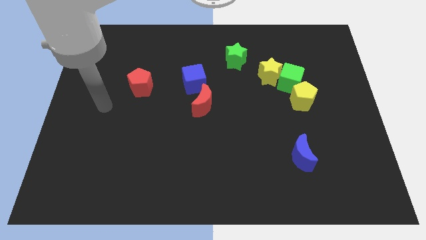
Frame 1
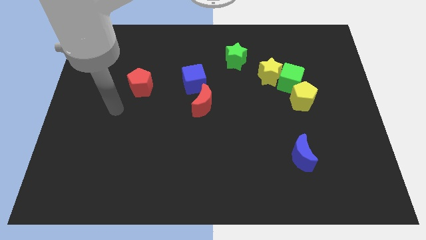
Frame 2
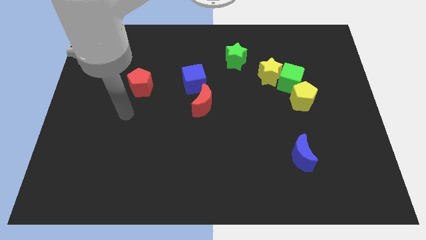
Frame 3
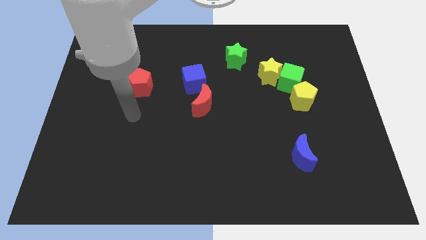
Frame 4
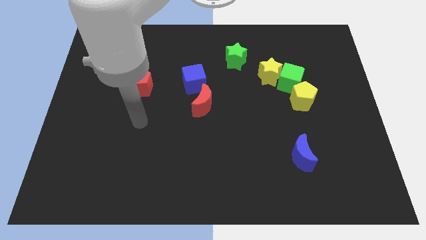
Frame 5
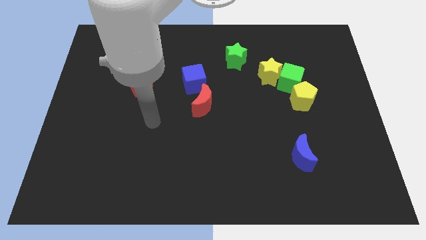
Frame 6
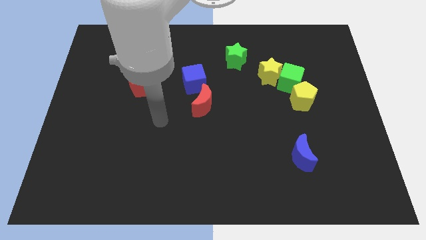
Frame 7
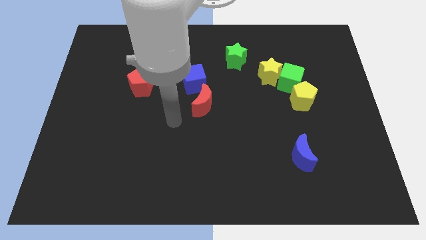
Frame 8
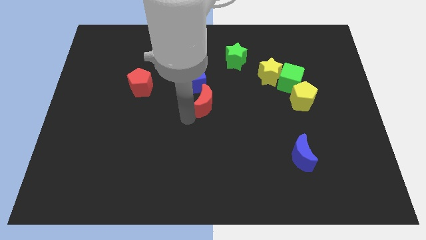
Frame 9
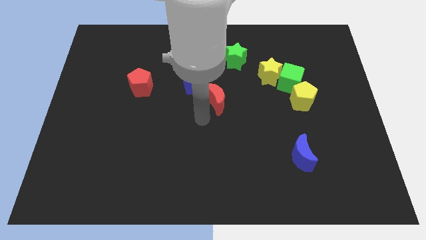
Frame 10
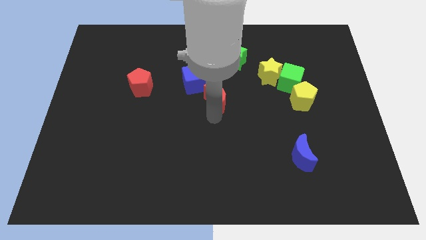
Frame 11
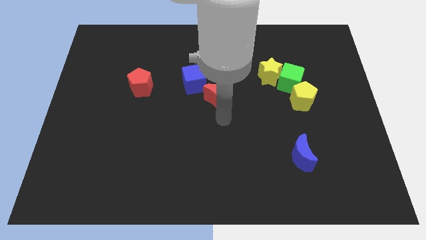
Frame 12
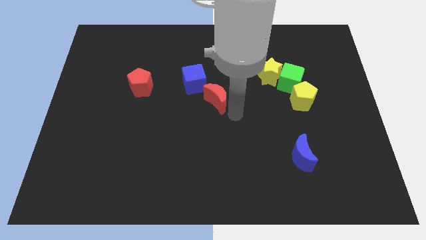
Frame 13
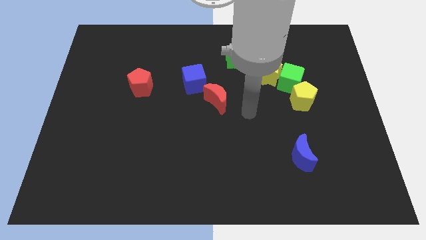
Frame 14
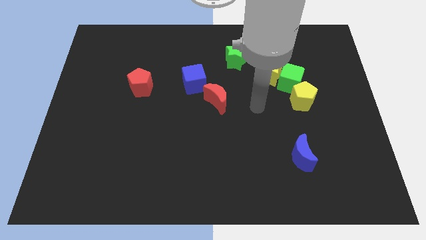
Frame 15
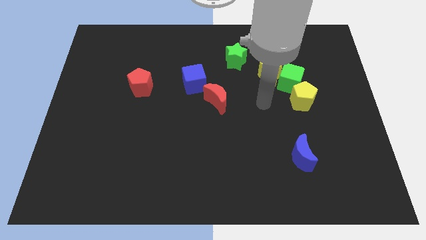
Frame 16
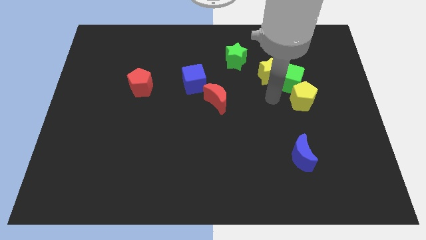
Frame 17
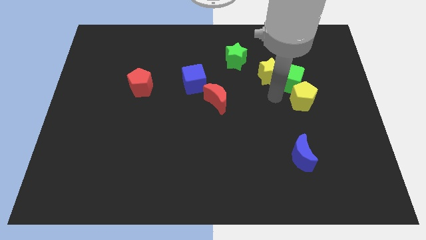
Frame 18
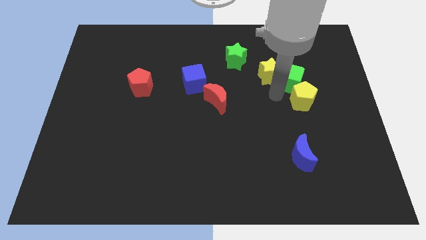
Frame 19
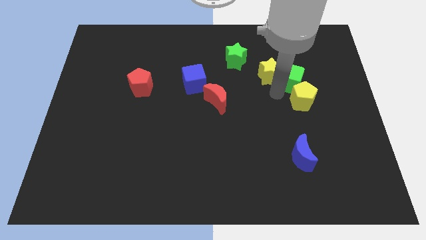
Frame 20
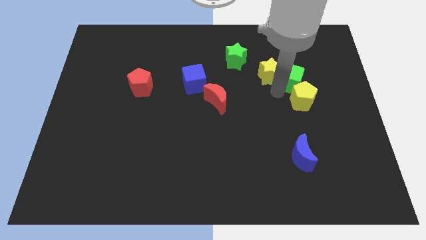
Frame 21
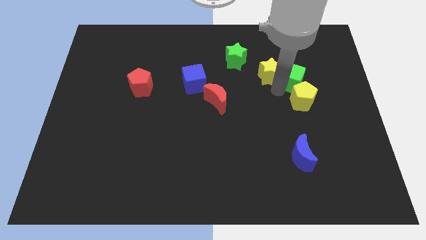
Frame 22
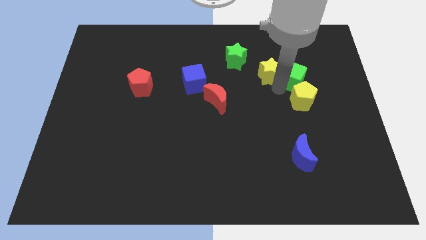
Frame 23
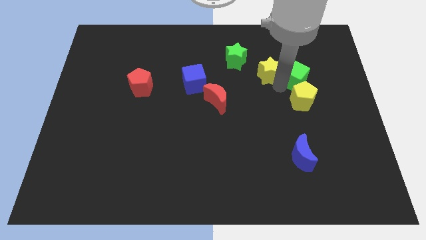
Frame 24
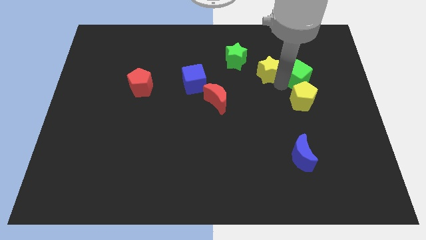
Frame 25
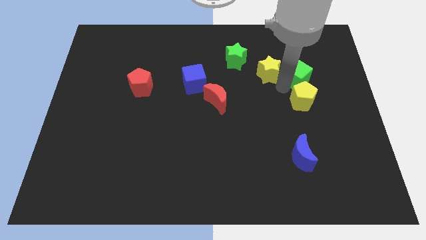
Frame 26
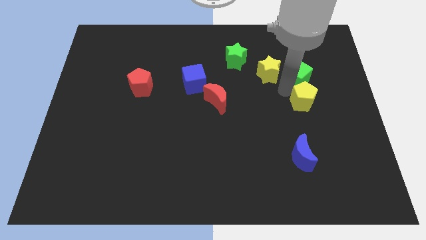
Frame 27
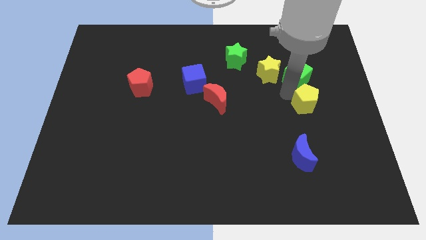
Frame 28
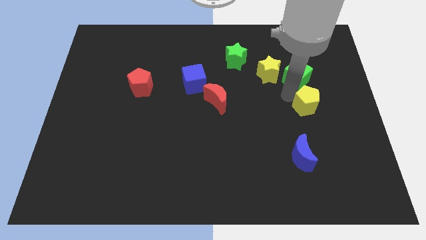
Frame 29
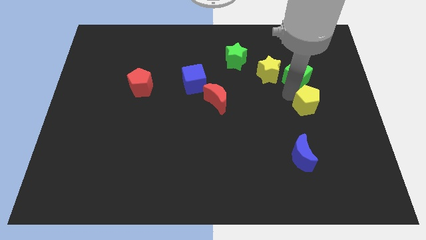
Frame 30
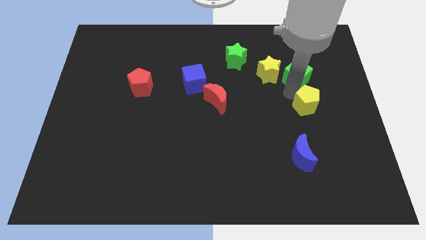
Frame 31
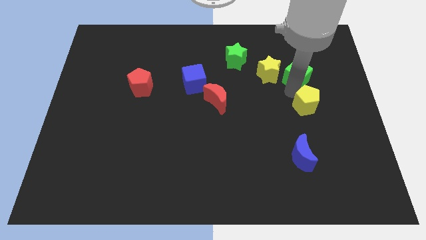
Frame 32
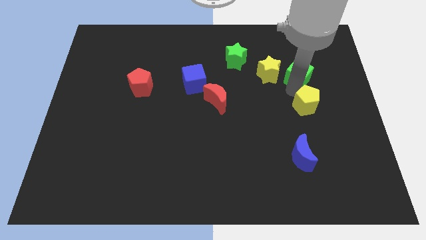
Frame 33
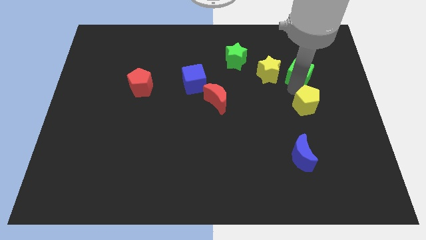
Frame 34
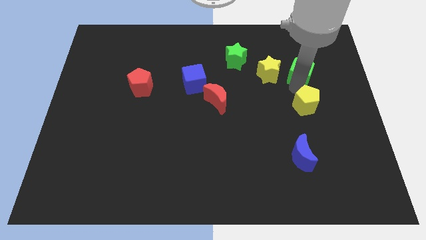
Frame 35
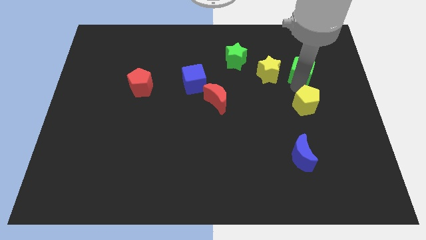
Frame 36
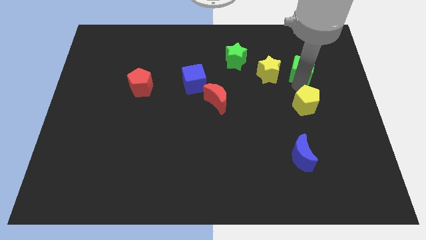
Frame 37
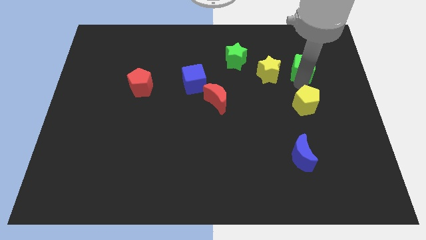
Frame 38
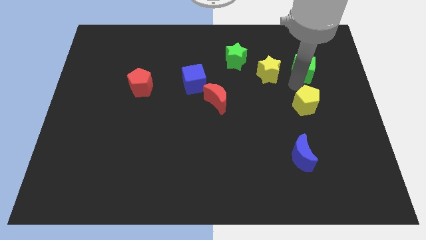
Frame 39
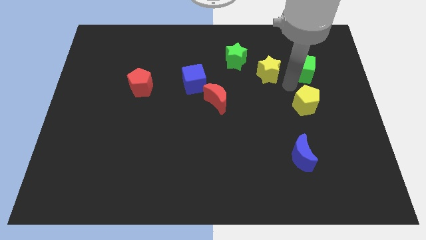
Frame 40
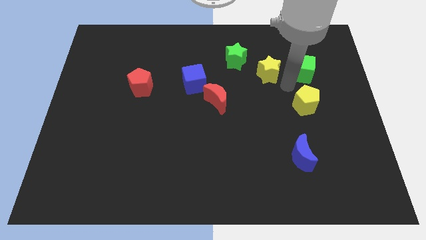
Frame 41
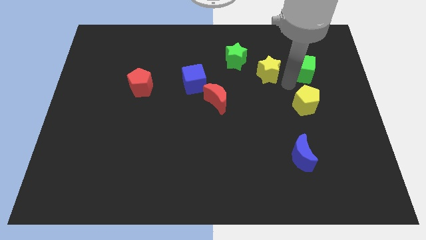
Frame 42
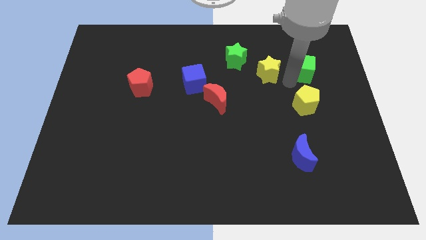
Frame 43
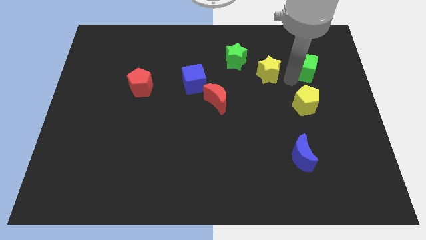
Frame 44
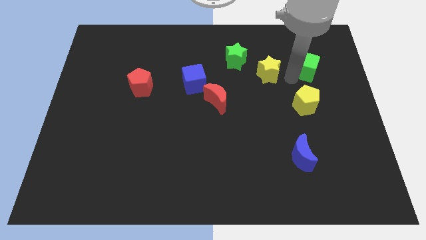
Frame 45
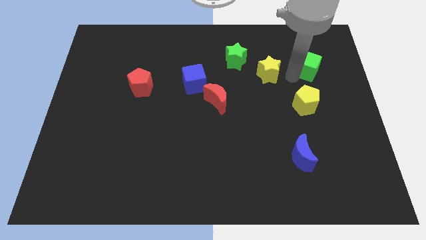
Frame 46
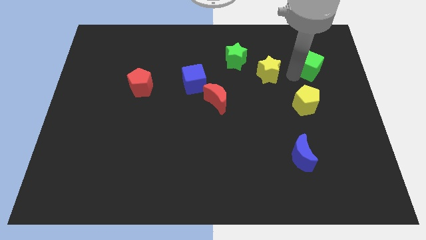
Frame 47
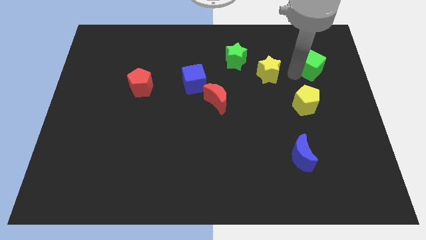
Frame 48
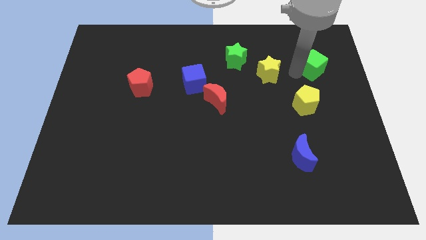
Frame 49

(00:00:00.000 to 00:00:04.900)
pull the green cube apart from the yellow star and yellow pentagon

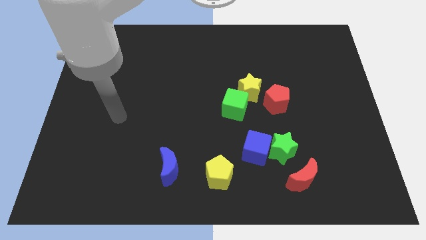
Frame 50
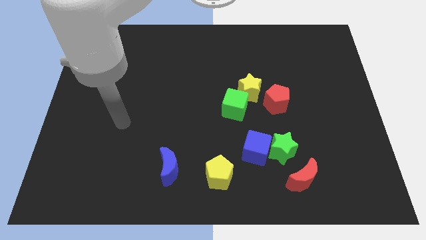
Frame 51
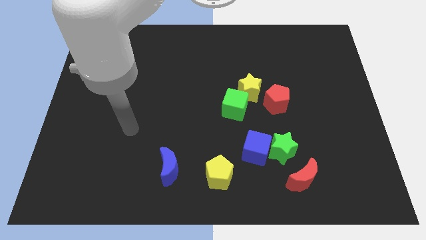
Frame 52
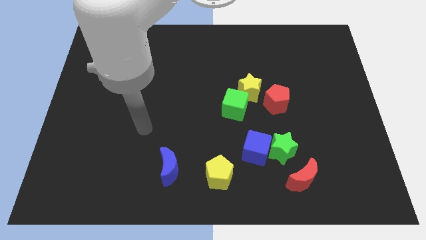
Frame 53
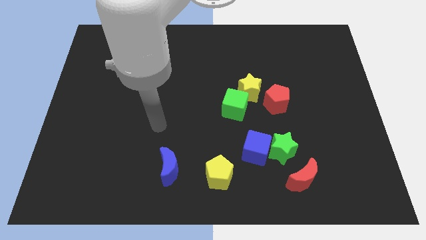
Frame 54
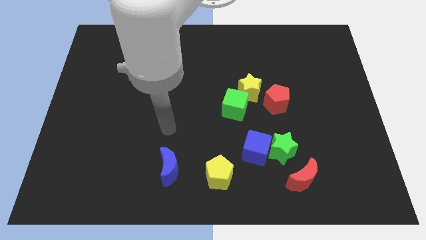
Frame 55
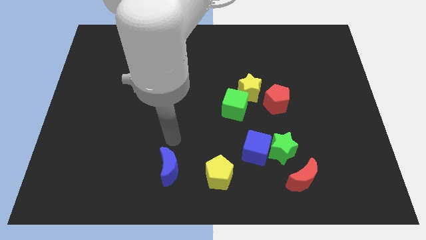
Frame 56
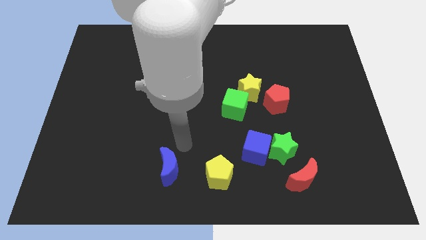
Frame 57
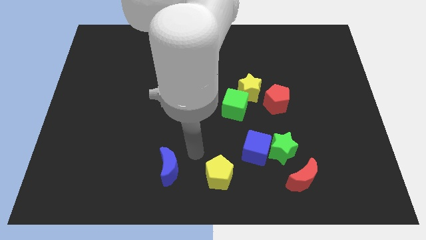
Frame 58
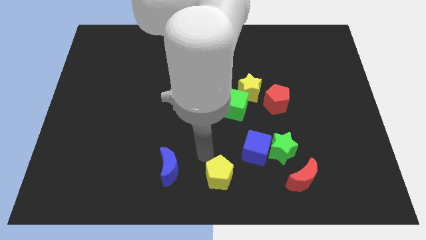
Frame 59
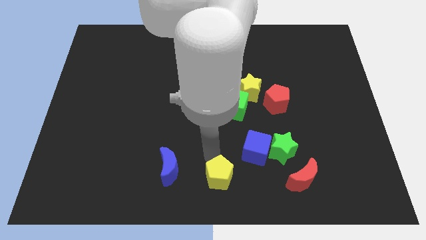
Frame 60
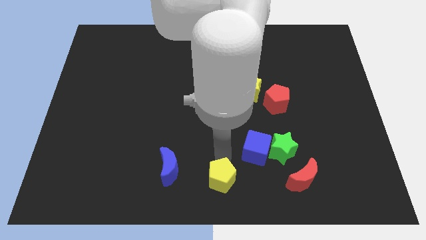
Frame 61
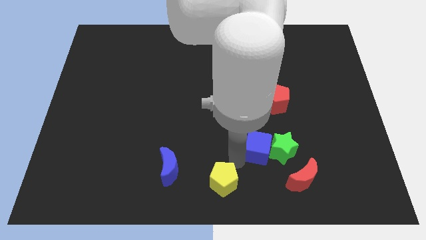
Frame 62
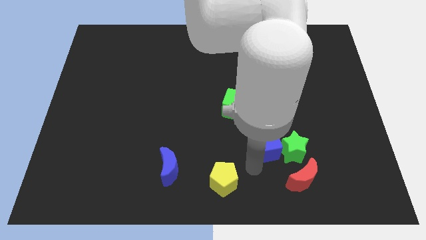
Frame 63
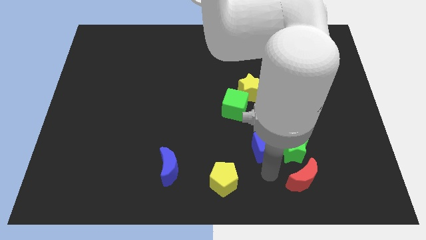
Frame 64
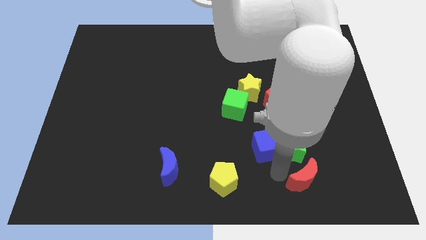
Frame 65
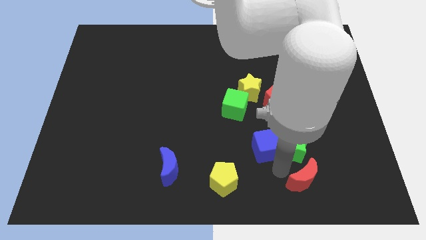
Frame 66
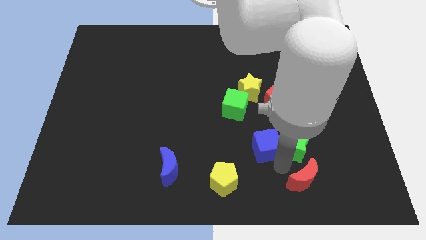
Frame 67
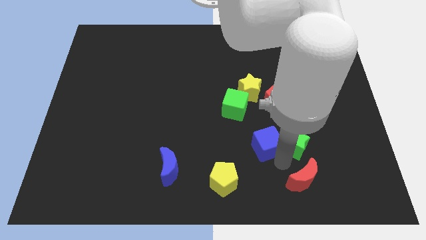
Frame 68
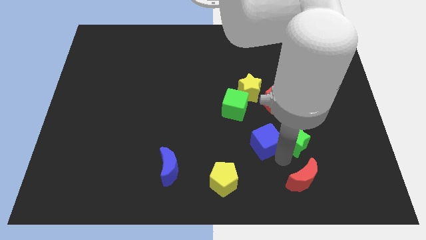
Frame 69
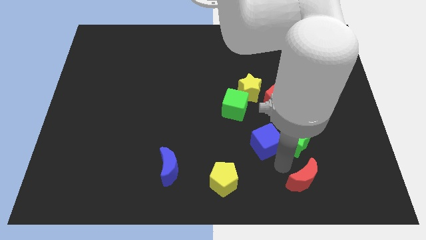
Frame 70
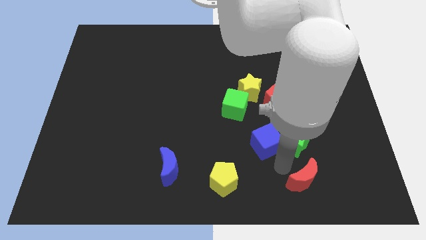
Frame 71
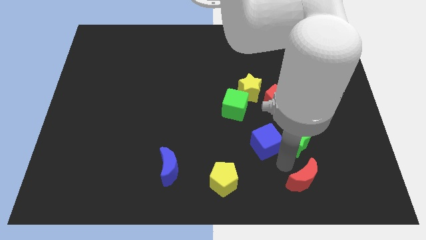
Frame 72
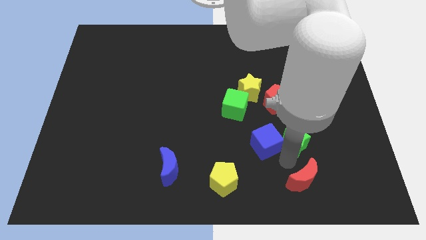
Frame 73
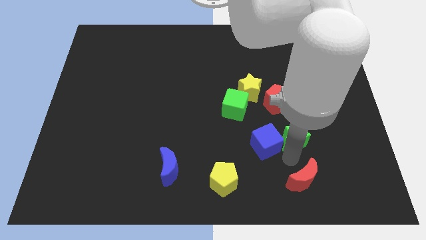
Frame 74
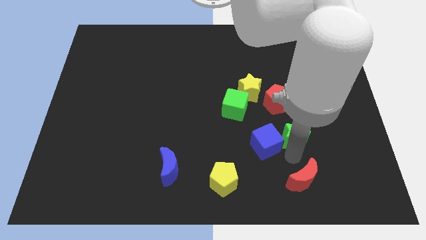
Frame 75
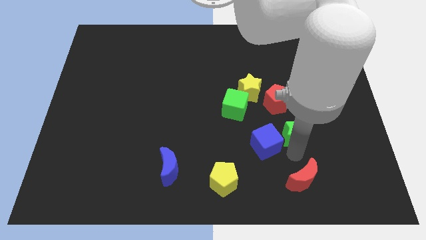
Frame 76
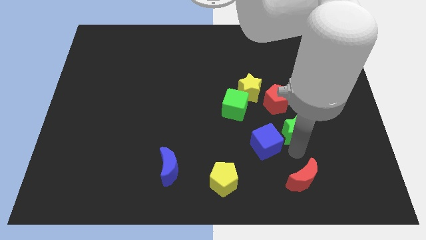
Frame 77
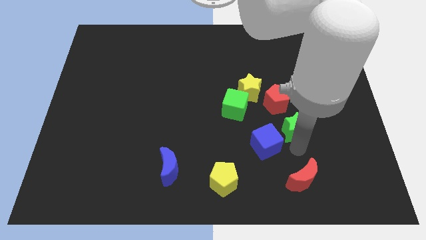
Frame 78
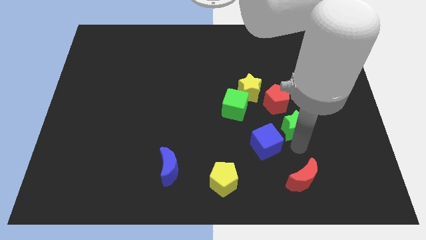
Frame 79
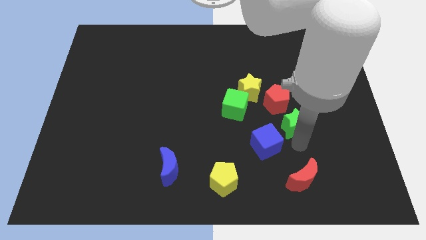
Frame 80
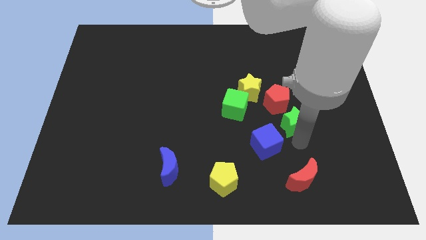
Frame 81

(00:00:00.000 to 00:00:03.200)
pull the green star apart from the blue cube and red moon

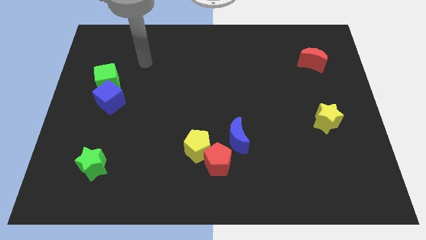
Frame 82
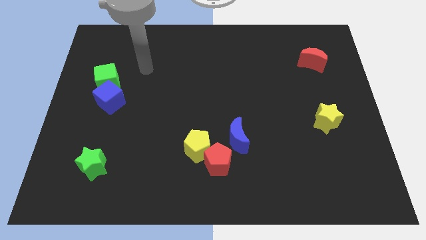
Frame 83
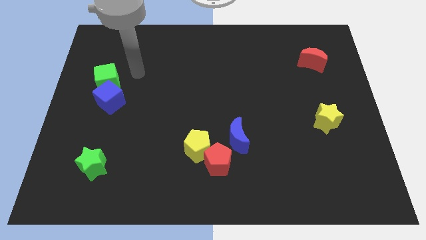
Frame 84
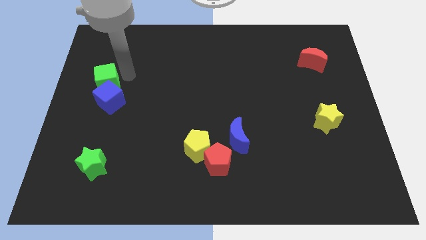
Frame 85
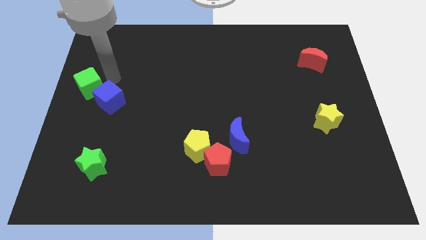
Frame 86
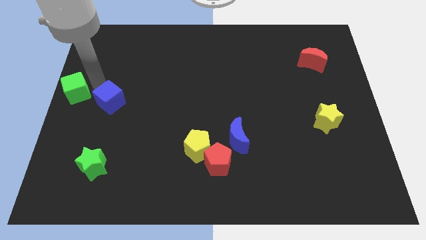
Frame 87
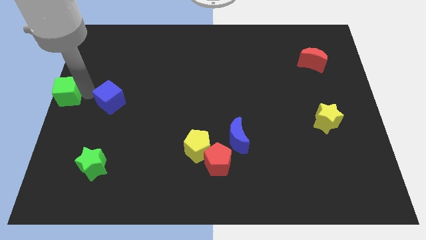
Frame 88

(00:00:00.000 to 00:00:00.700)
separate the blue cube from the green cube

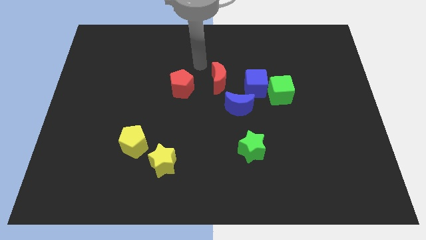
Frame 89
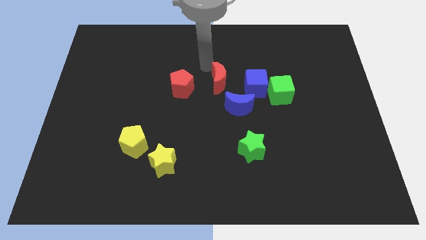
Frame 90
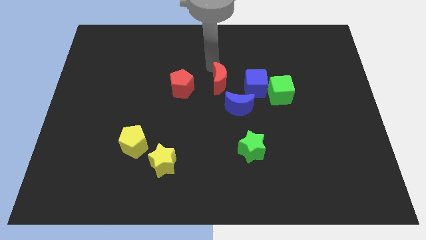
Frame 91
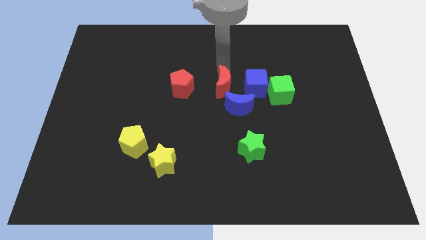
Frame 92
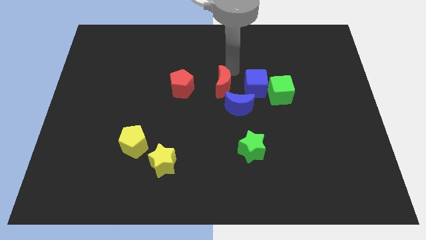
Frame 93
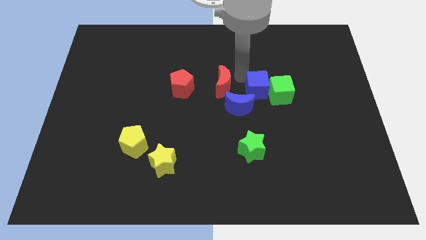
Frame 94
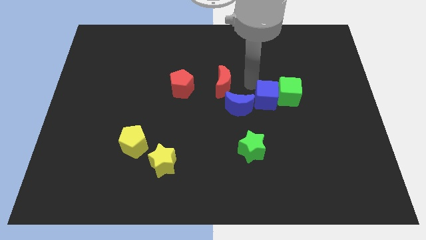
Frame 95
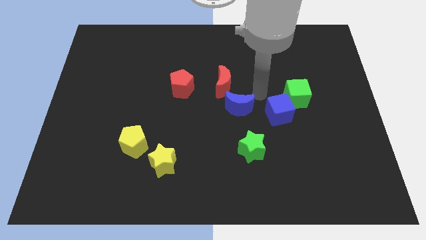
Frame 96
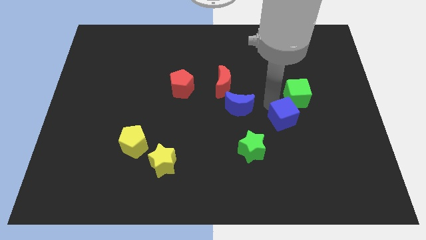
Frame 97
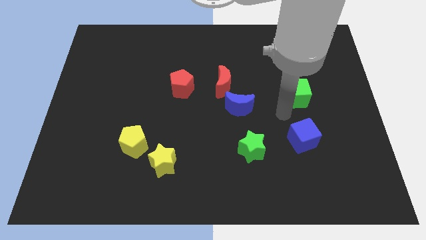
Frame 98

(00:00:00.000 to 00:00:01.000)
move the green cube away from the blue cube
